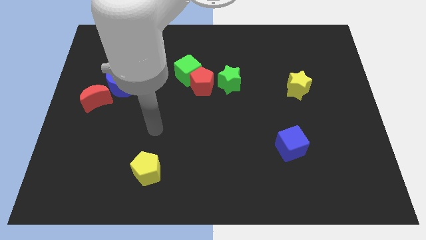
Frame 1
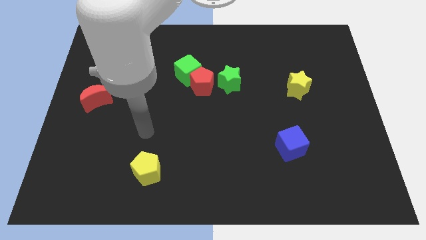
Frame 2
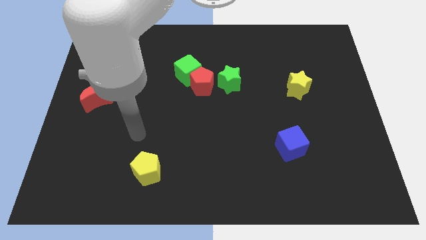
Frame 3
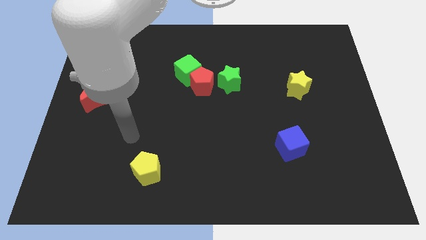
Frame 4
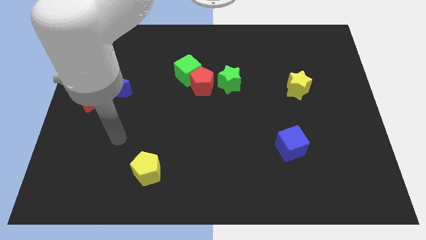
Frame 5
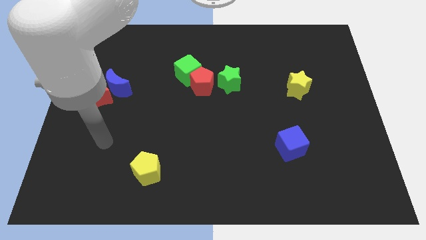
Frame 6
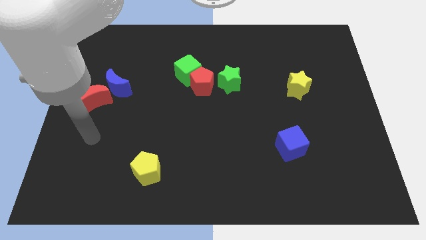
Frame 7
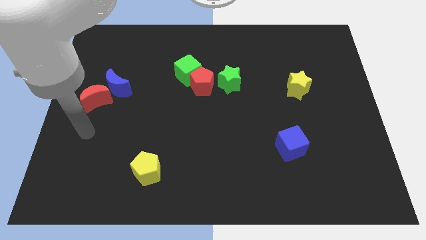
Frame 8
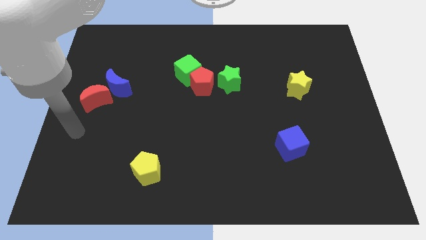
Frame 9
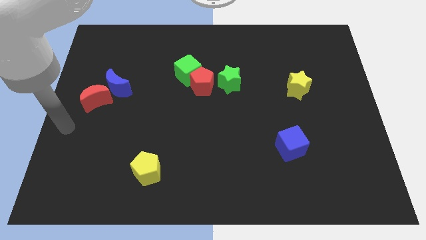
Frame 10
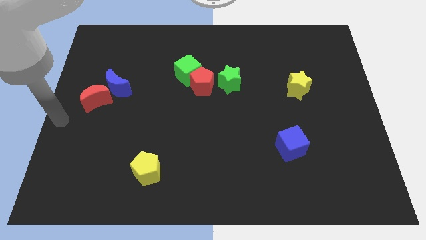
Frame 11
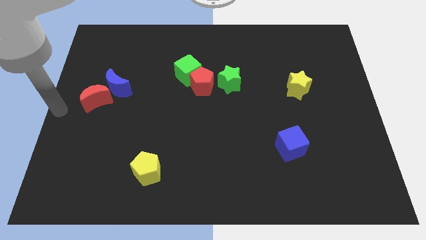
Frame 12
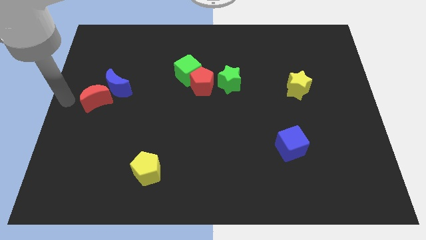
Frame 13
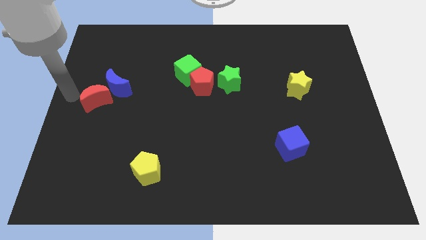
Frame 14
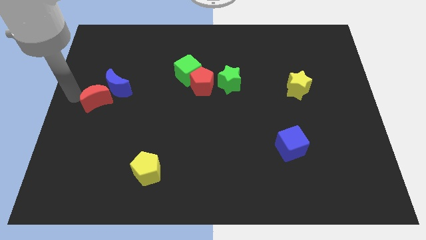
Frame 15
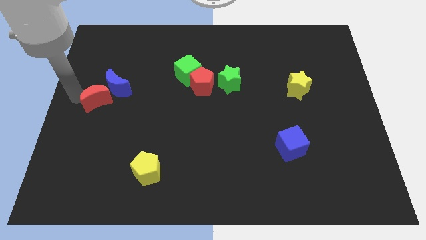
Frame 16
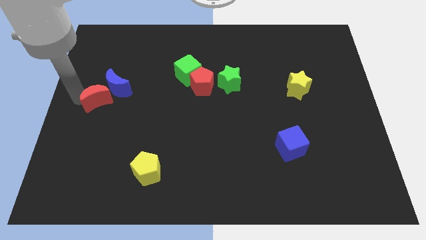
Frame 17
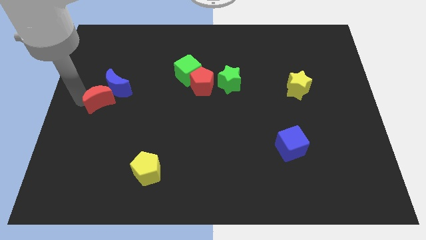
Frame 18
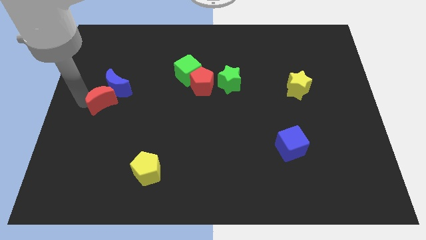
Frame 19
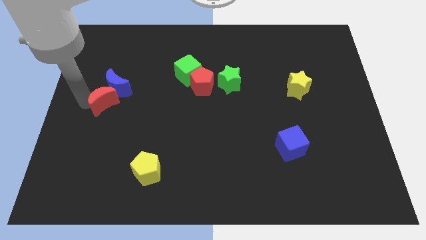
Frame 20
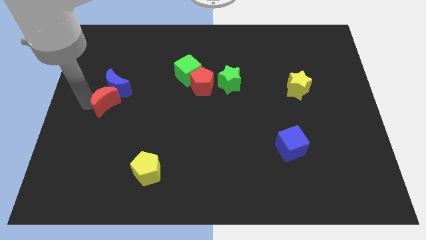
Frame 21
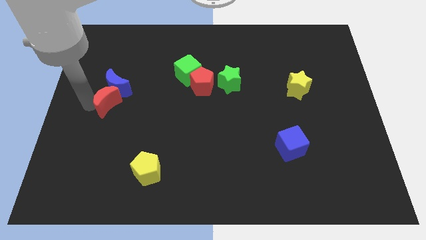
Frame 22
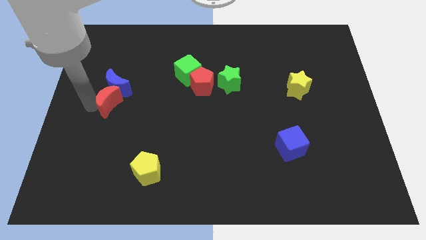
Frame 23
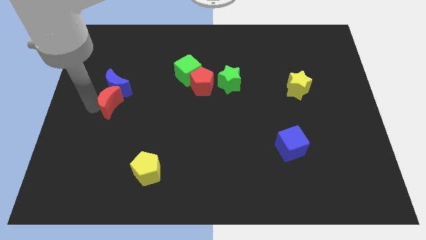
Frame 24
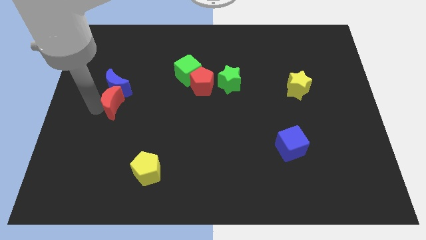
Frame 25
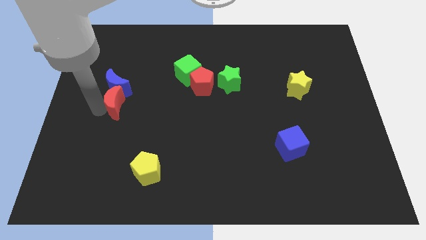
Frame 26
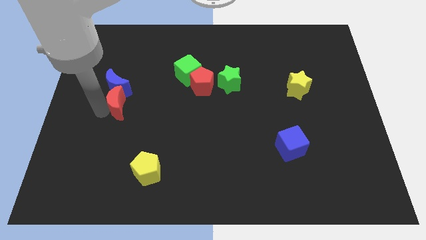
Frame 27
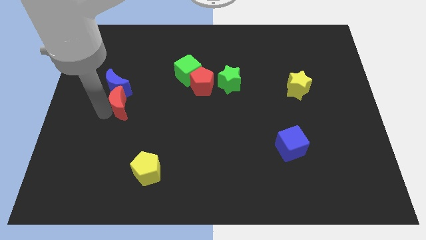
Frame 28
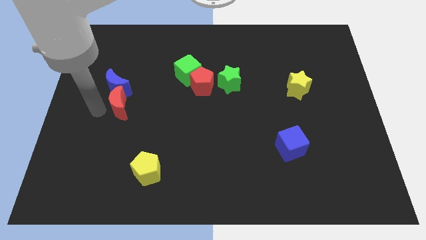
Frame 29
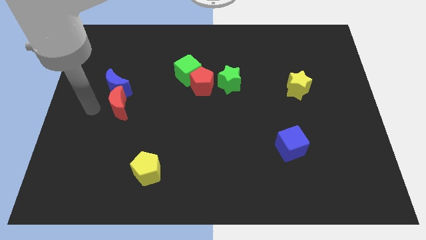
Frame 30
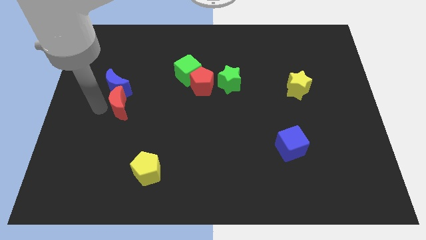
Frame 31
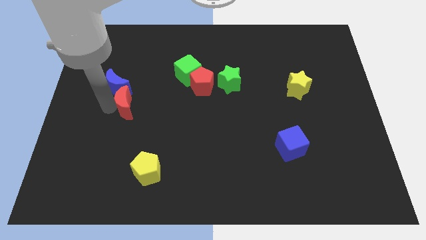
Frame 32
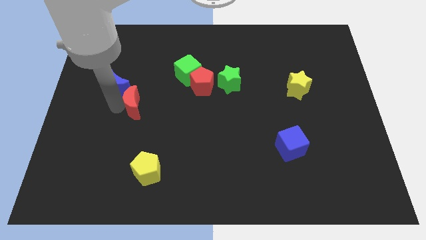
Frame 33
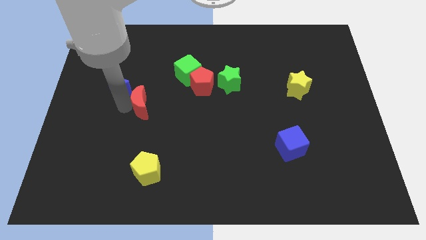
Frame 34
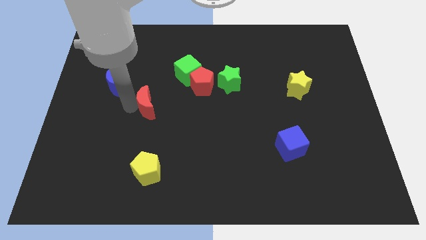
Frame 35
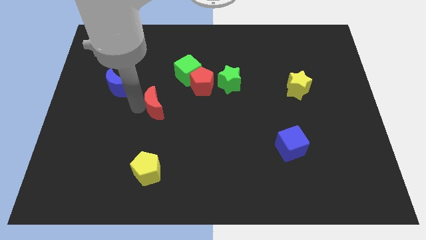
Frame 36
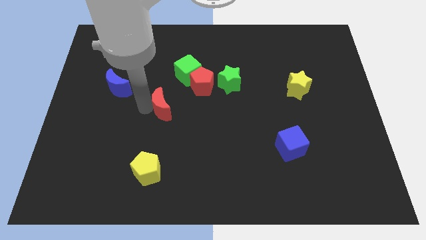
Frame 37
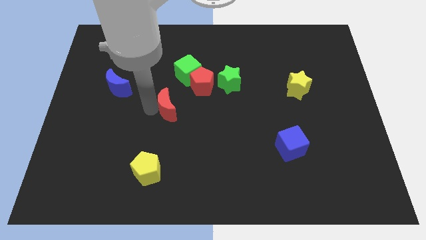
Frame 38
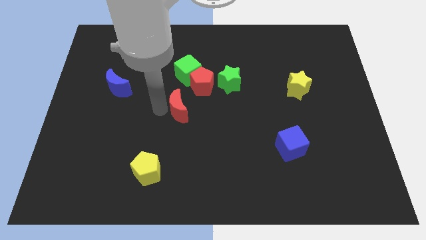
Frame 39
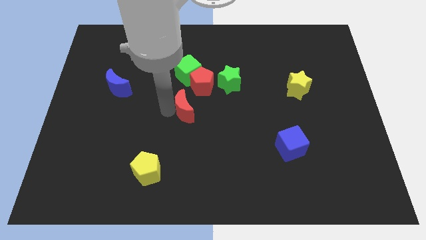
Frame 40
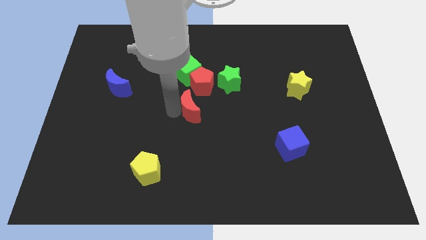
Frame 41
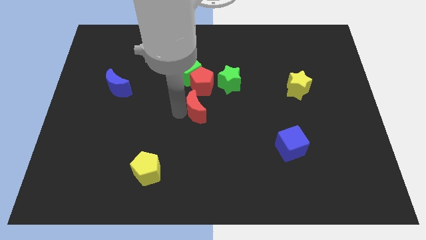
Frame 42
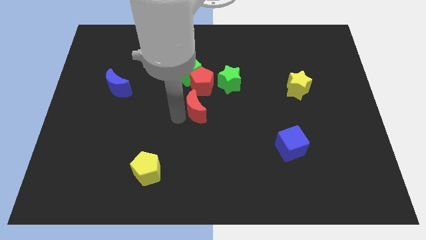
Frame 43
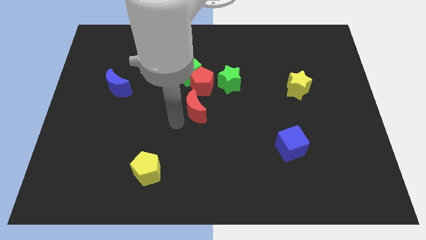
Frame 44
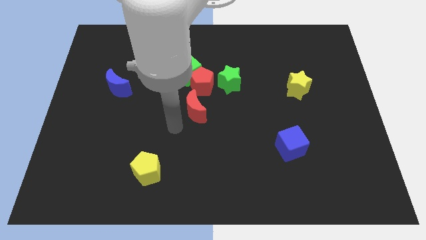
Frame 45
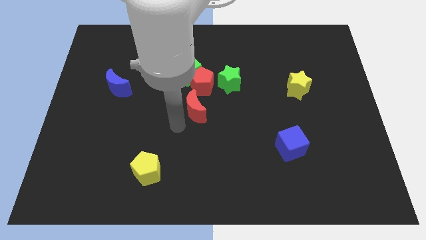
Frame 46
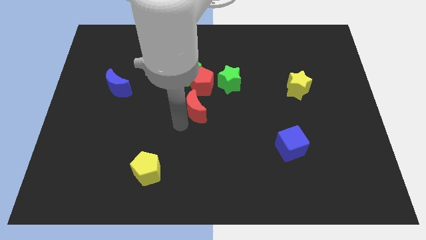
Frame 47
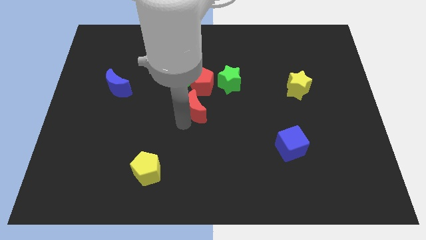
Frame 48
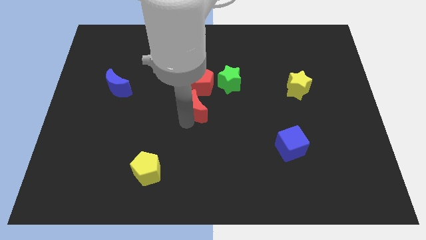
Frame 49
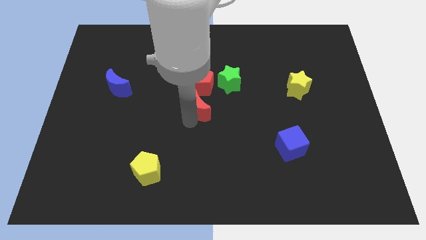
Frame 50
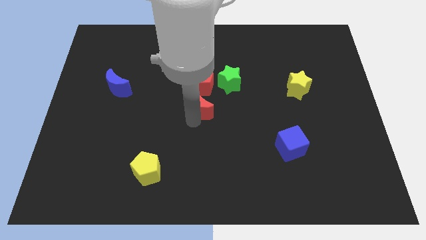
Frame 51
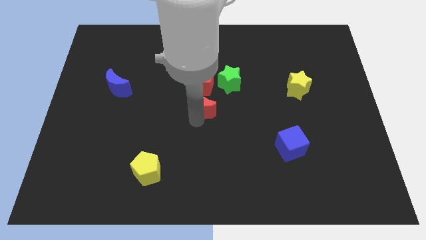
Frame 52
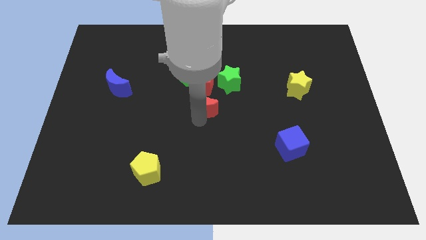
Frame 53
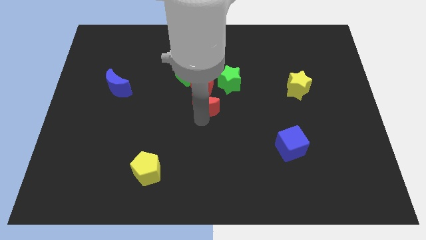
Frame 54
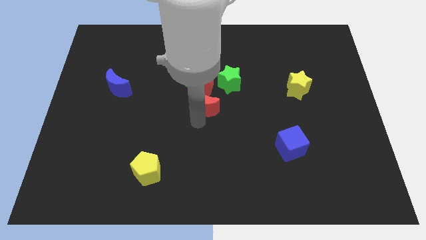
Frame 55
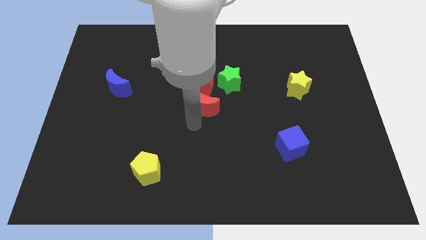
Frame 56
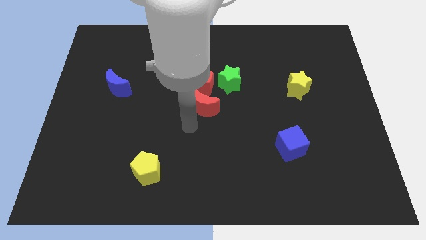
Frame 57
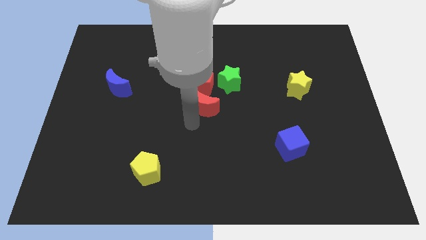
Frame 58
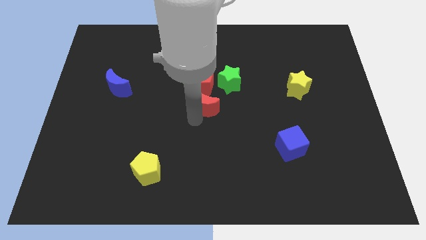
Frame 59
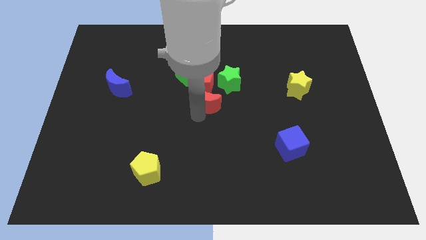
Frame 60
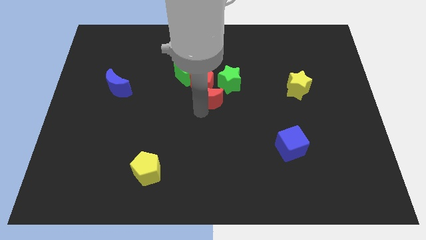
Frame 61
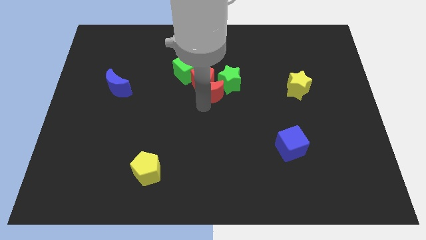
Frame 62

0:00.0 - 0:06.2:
put the red moon close to the green star

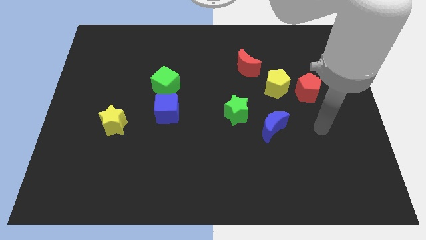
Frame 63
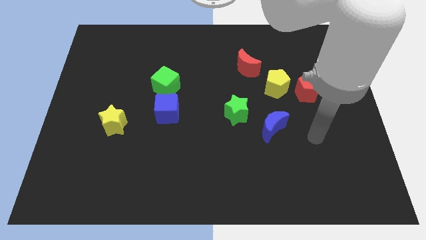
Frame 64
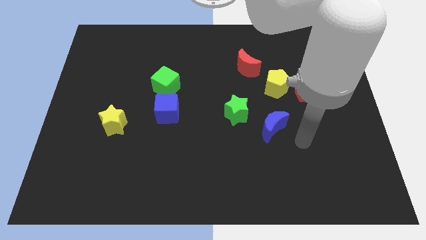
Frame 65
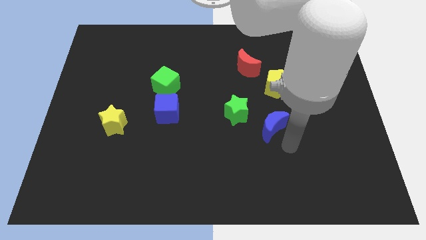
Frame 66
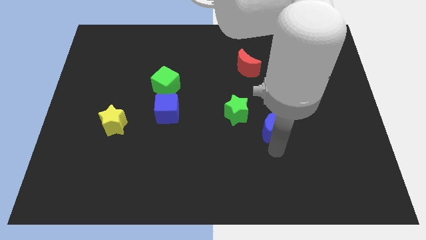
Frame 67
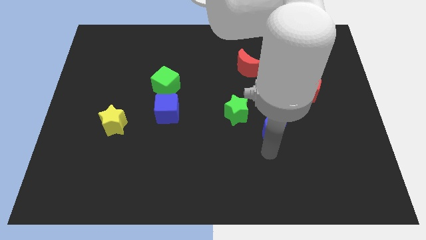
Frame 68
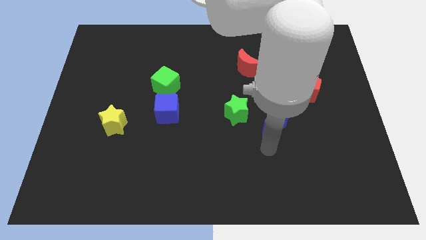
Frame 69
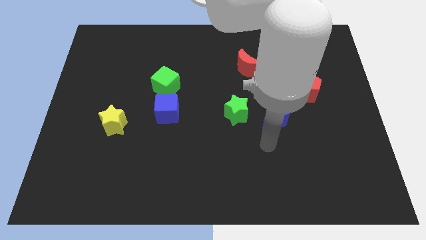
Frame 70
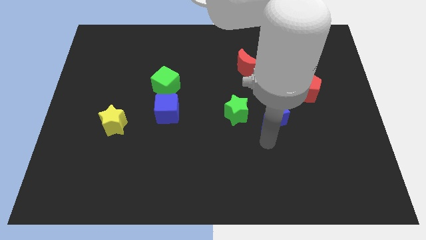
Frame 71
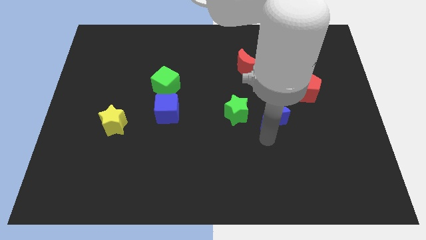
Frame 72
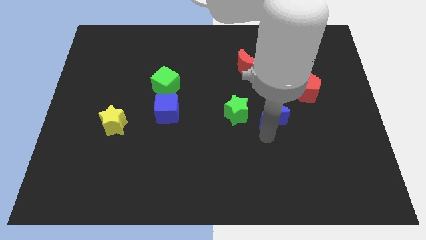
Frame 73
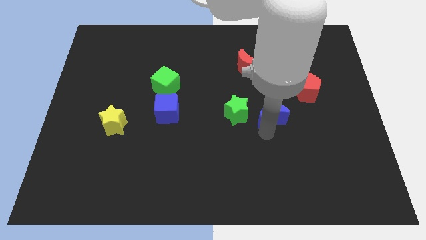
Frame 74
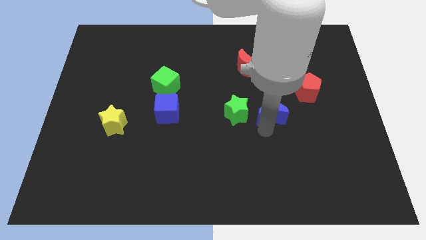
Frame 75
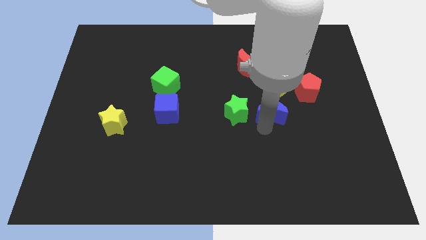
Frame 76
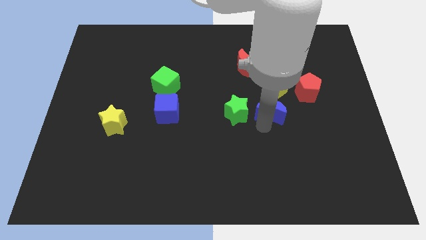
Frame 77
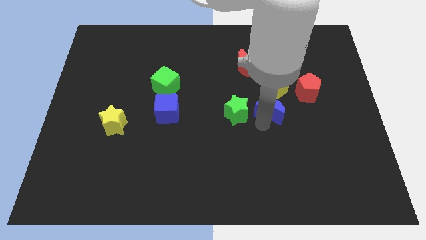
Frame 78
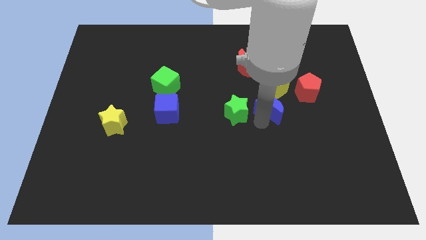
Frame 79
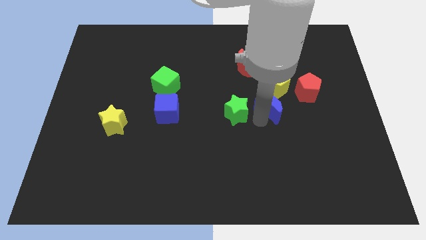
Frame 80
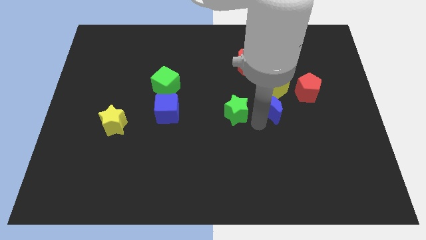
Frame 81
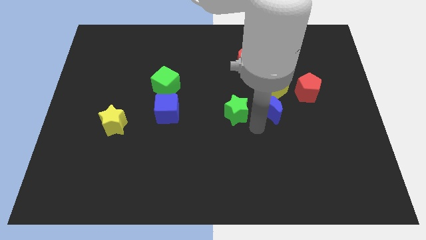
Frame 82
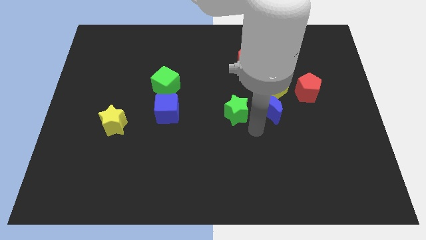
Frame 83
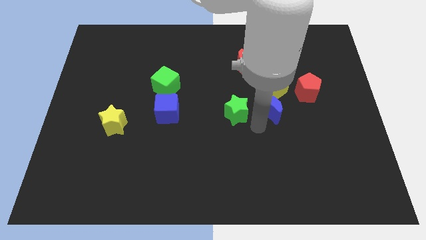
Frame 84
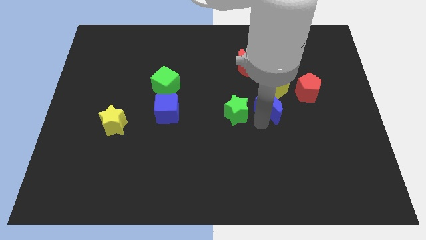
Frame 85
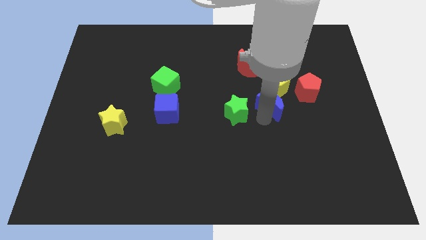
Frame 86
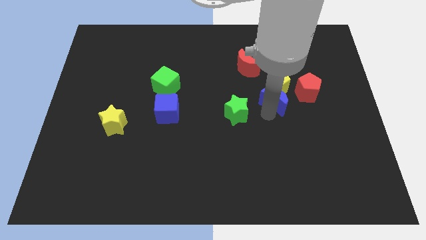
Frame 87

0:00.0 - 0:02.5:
move the blue moon close to the yellow pentagon
